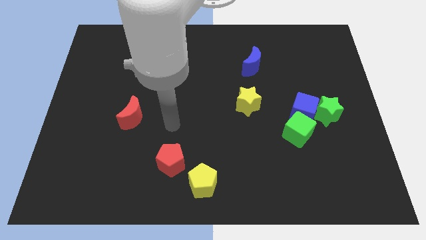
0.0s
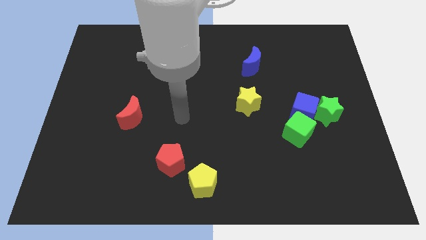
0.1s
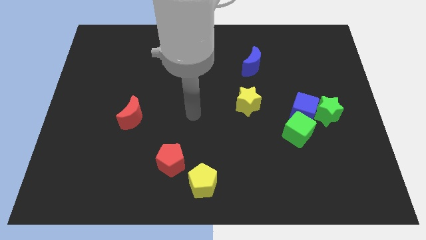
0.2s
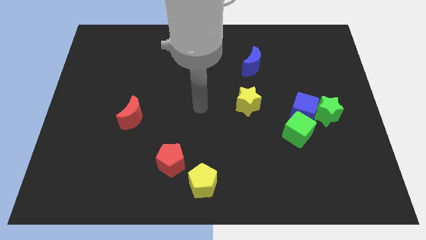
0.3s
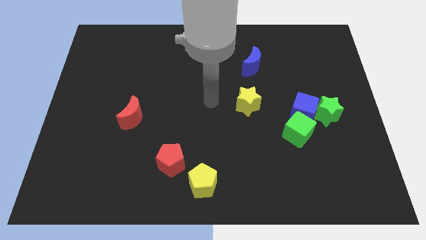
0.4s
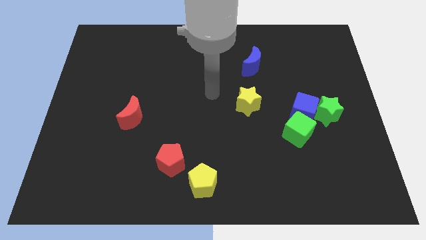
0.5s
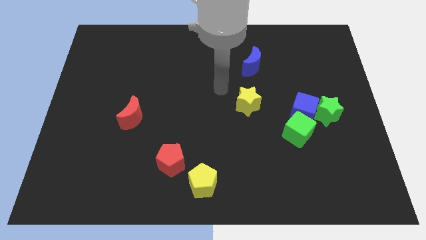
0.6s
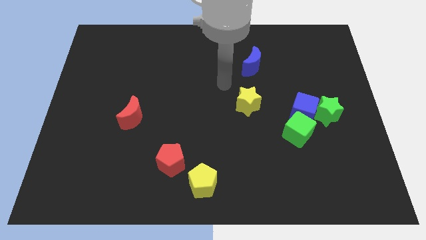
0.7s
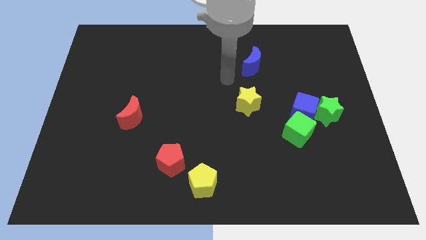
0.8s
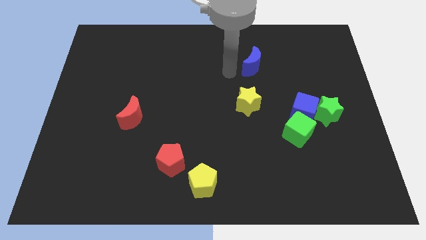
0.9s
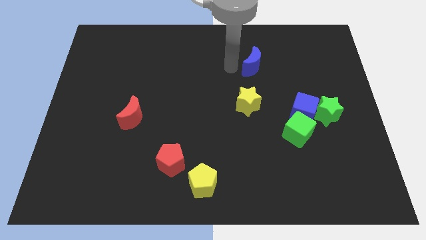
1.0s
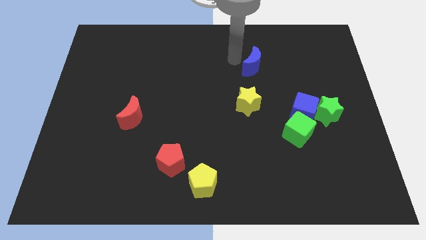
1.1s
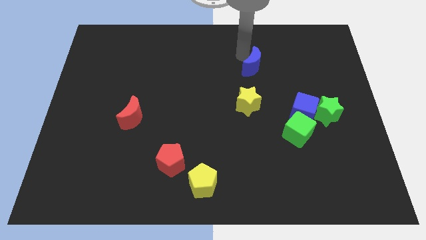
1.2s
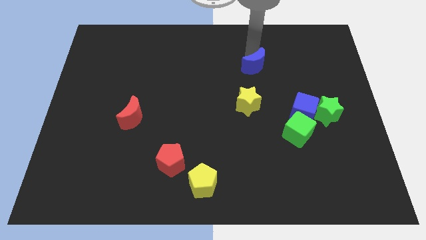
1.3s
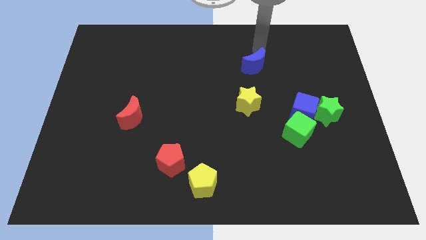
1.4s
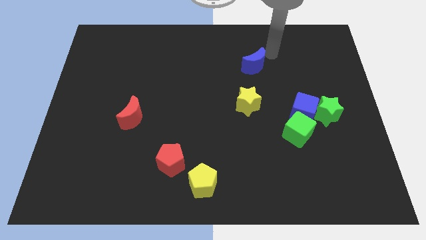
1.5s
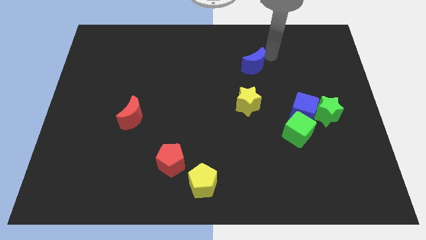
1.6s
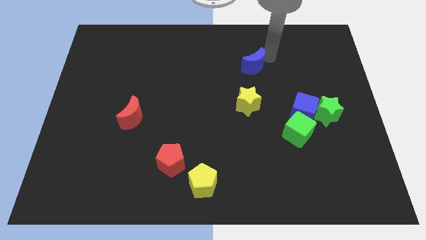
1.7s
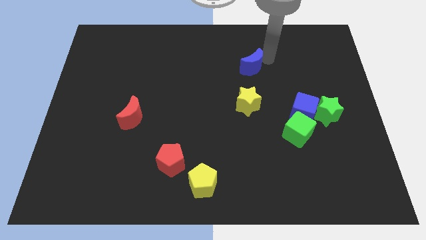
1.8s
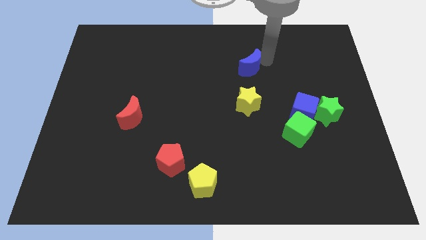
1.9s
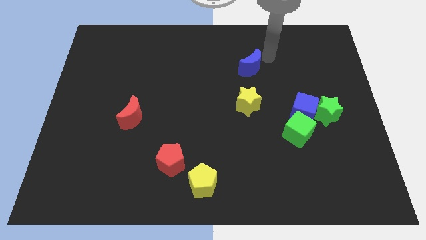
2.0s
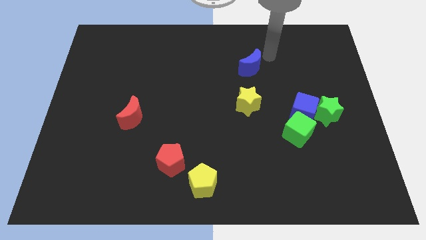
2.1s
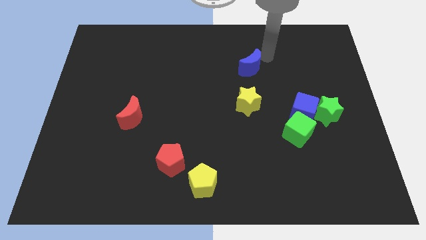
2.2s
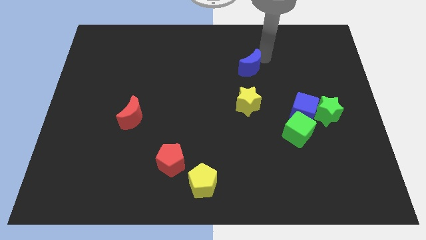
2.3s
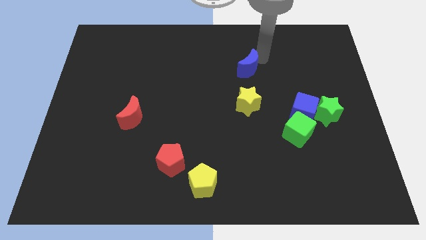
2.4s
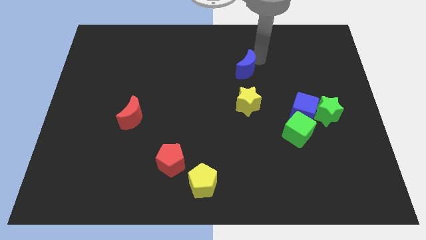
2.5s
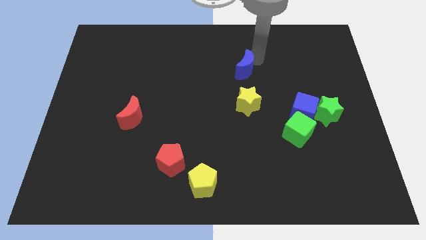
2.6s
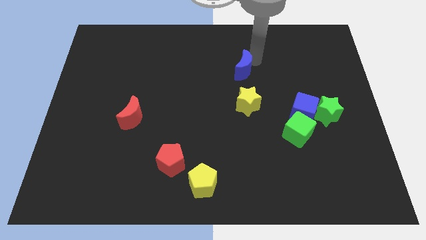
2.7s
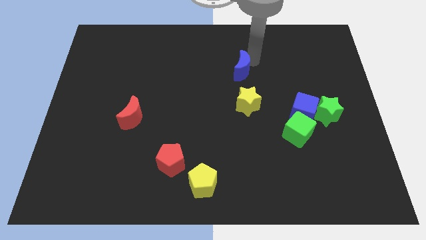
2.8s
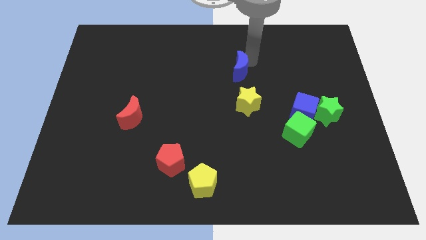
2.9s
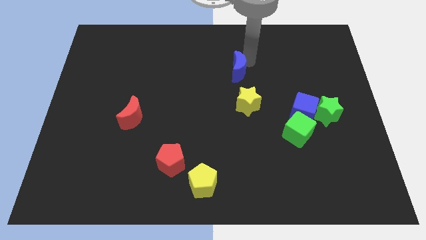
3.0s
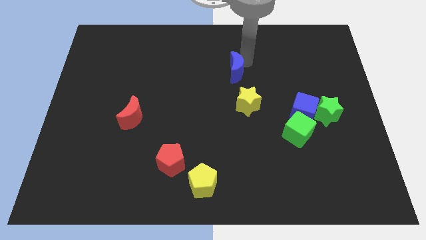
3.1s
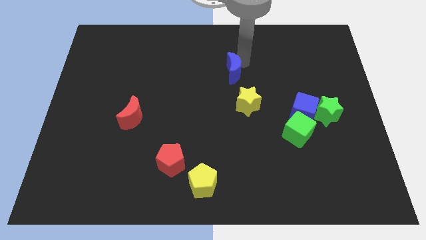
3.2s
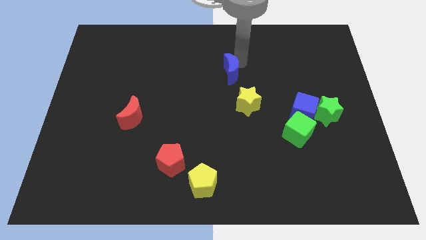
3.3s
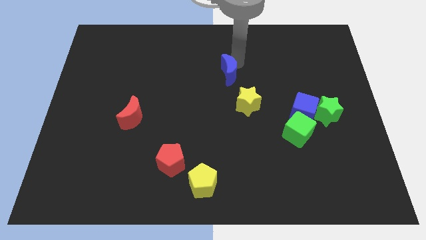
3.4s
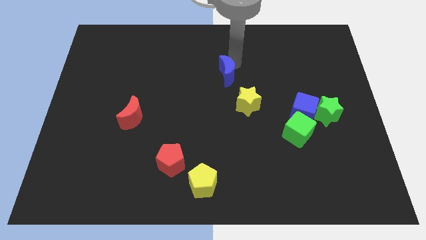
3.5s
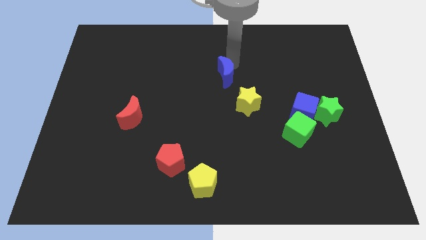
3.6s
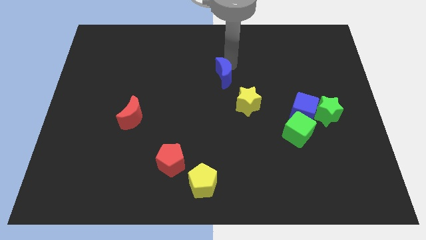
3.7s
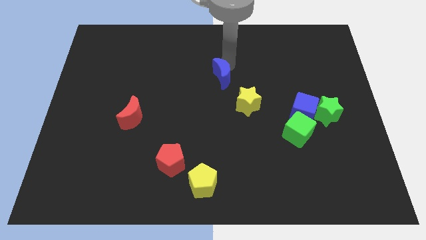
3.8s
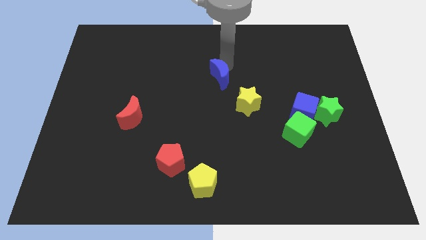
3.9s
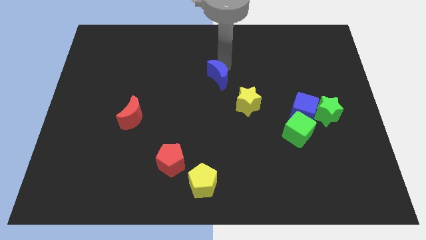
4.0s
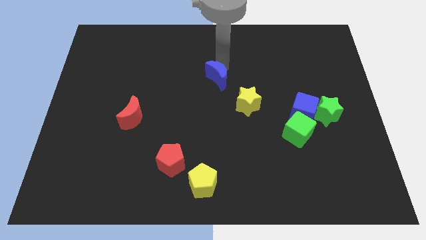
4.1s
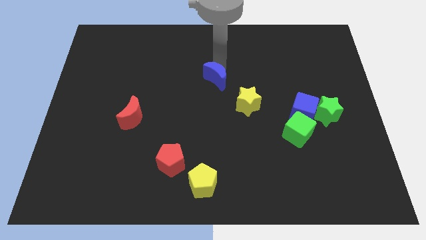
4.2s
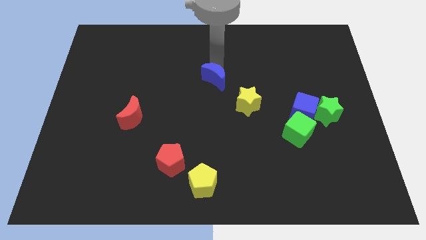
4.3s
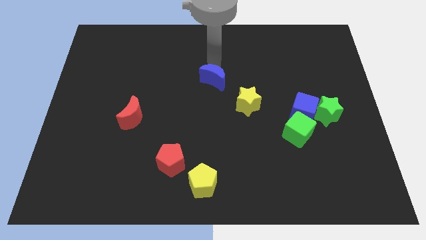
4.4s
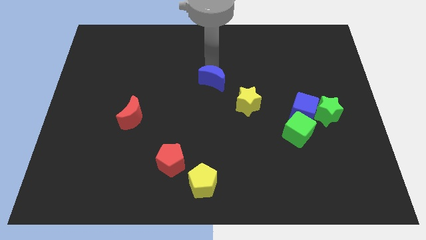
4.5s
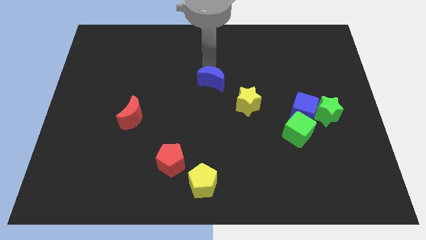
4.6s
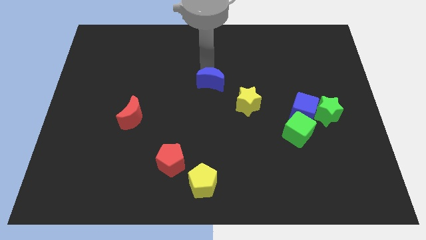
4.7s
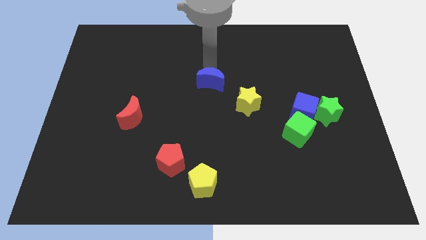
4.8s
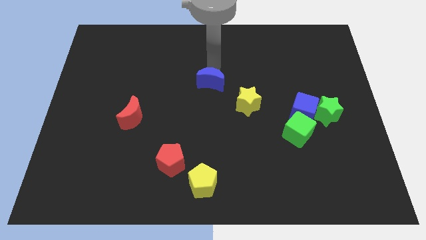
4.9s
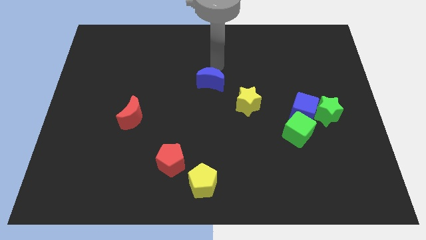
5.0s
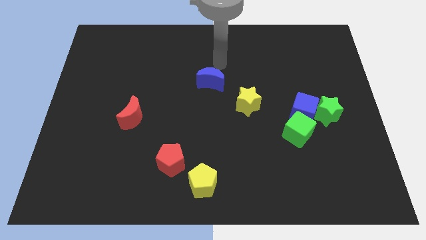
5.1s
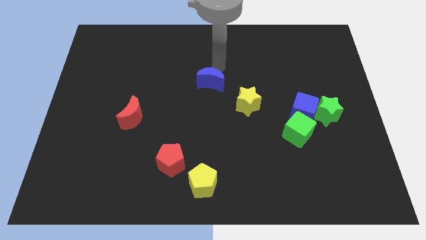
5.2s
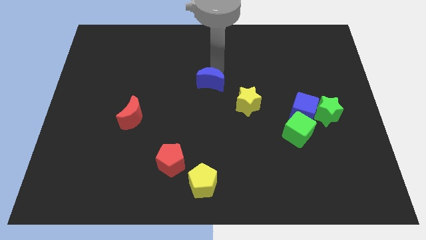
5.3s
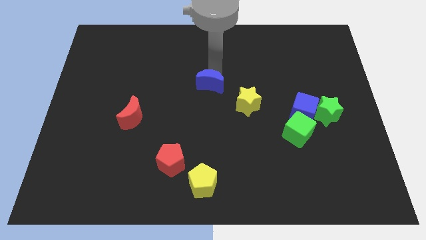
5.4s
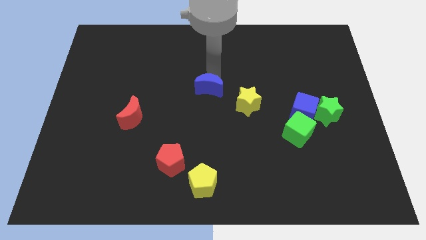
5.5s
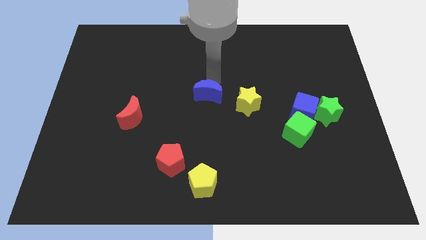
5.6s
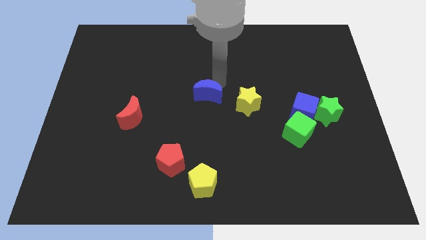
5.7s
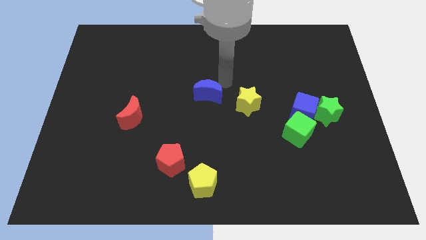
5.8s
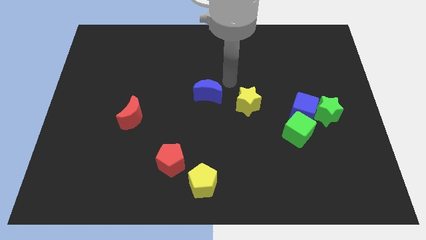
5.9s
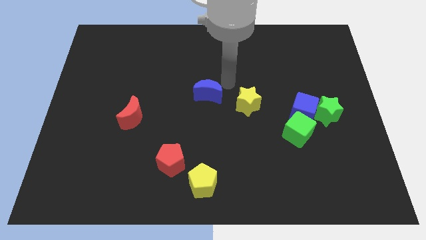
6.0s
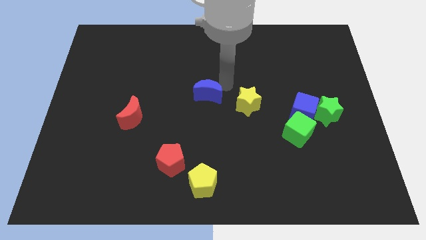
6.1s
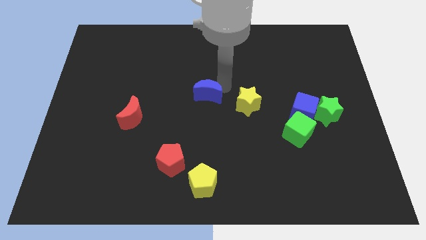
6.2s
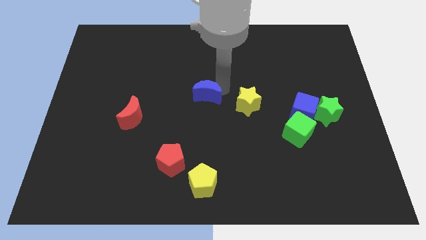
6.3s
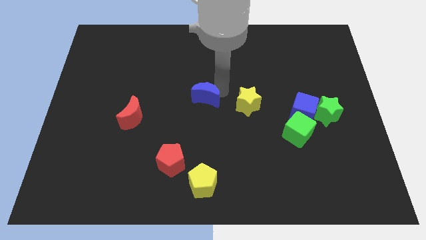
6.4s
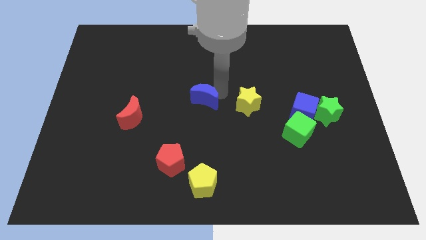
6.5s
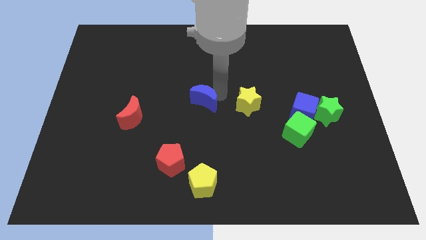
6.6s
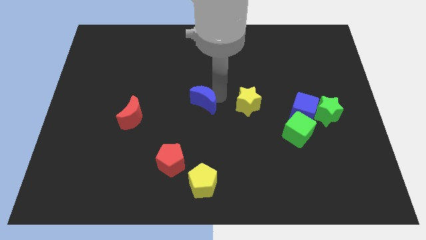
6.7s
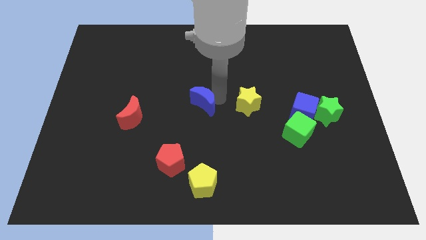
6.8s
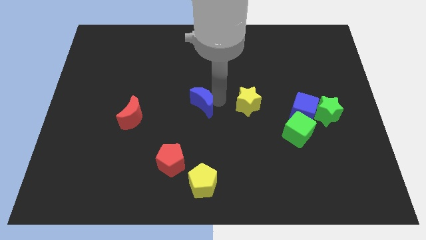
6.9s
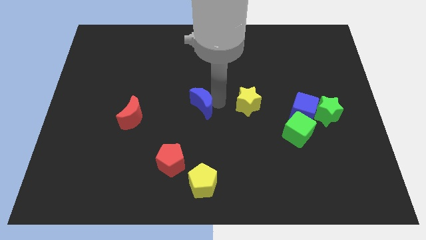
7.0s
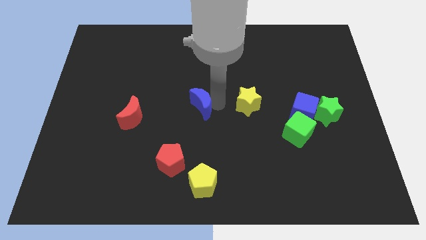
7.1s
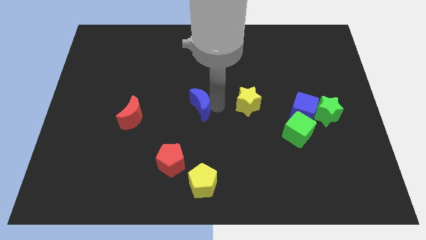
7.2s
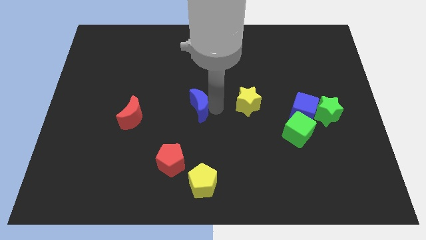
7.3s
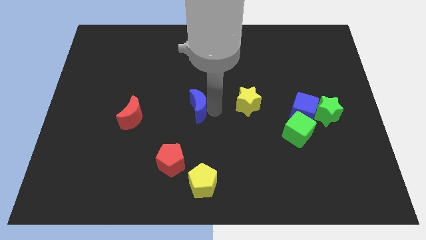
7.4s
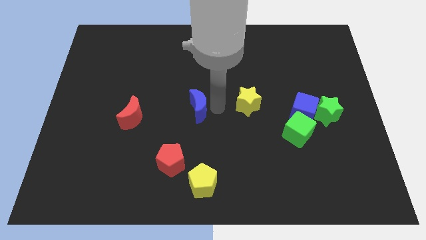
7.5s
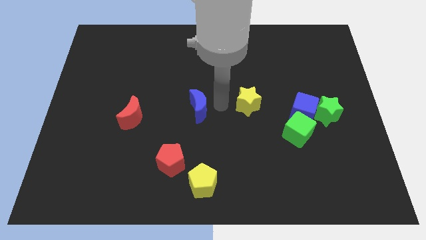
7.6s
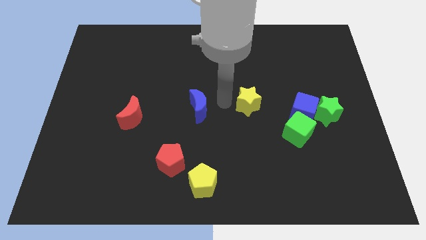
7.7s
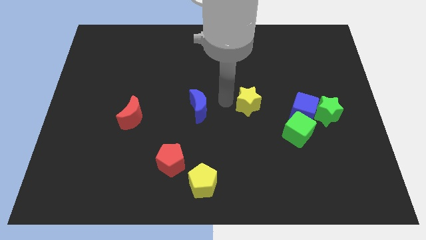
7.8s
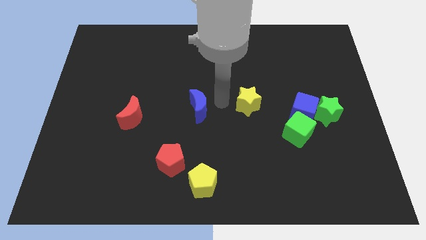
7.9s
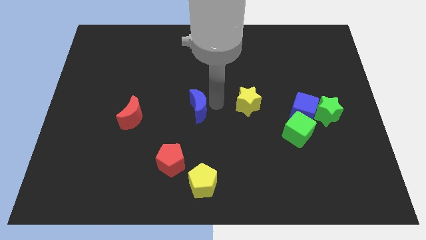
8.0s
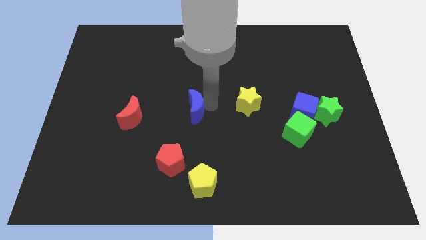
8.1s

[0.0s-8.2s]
push the blue moon down and to the left
